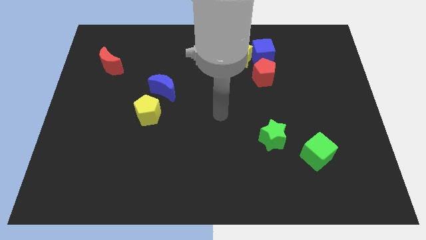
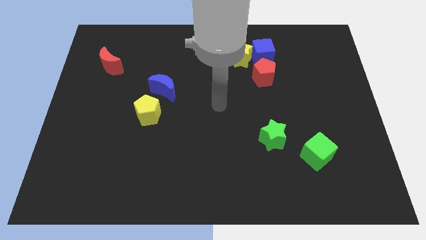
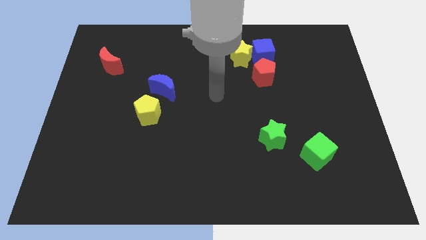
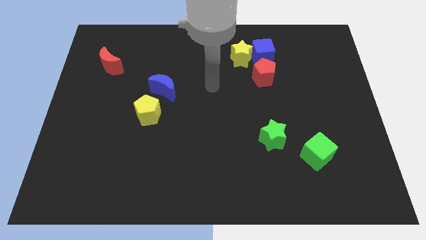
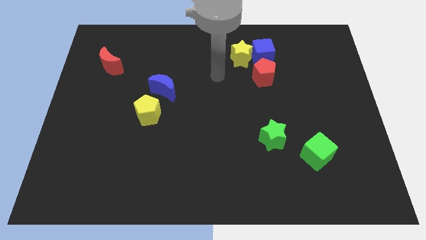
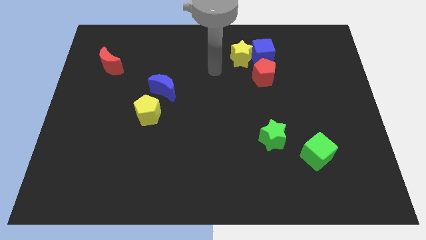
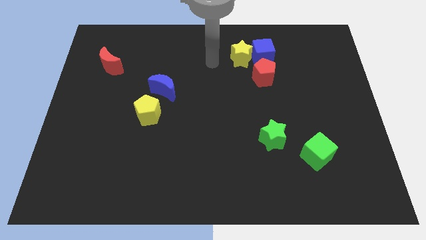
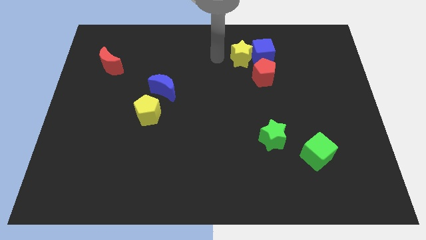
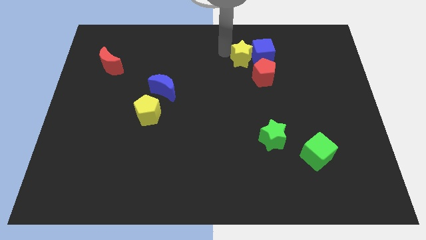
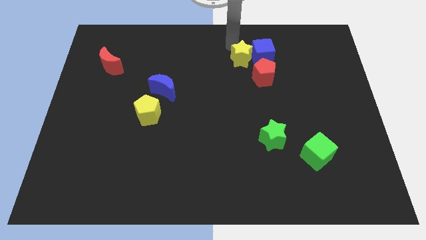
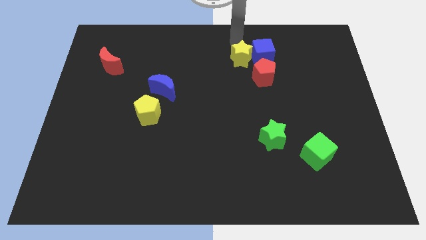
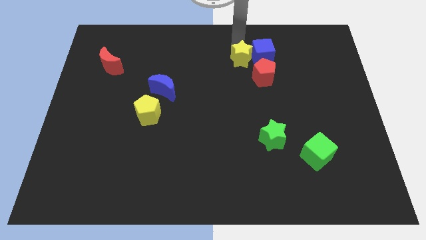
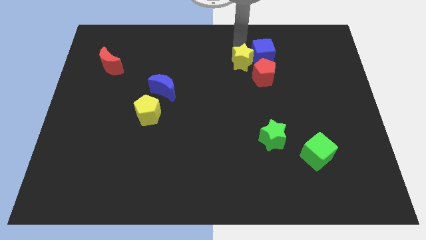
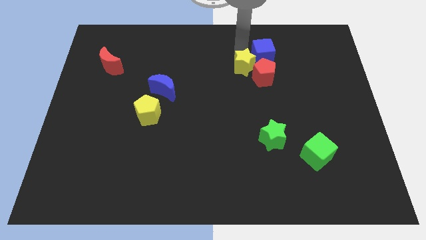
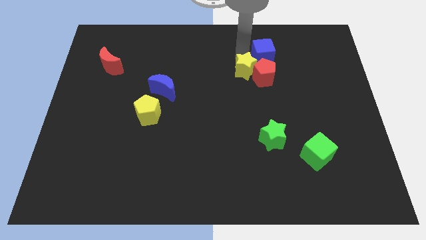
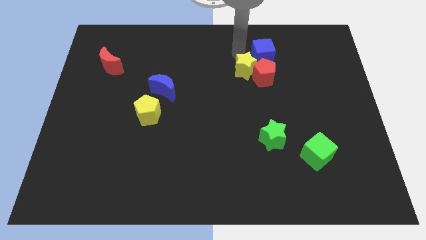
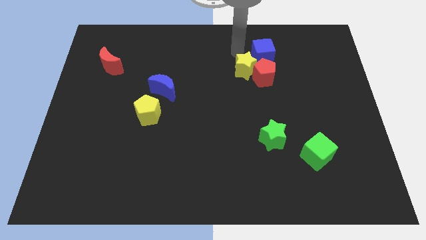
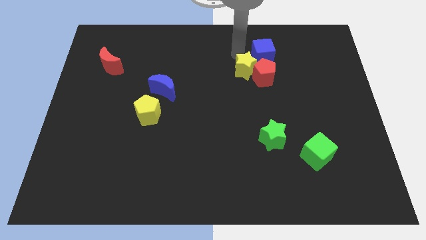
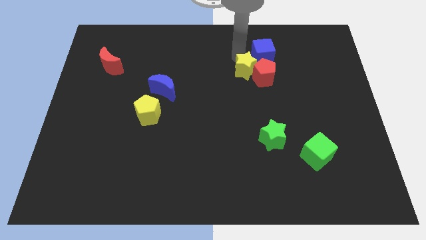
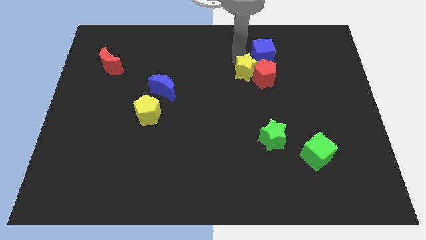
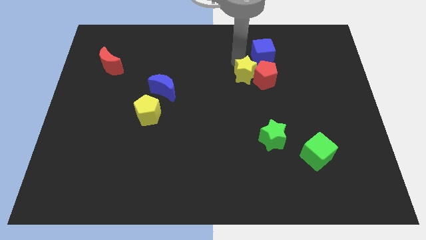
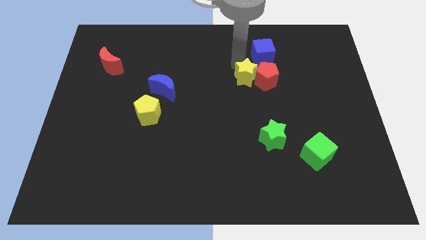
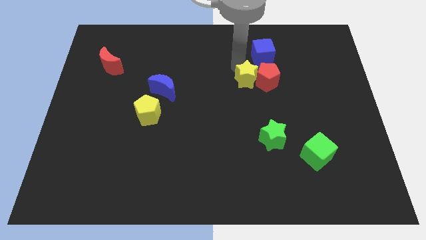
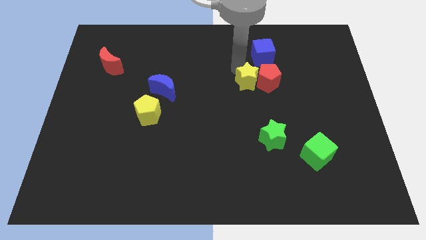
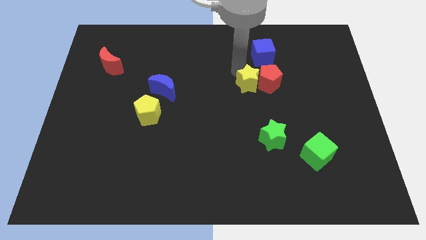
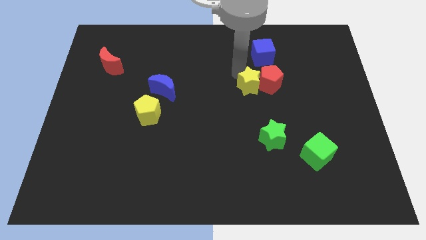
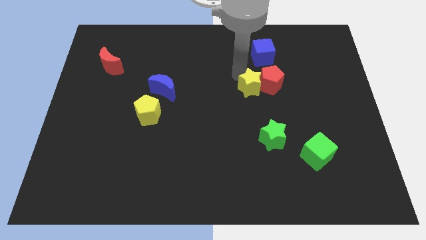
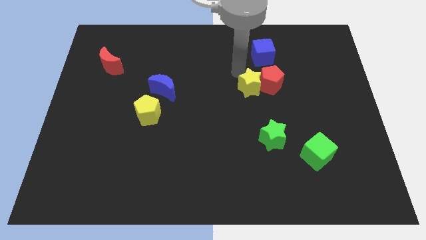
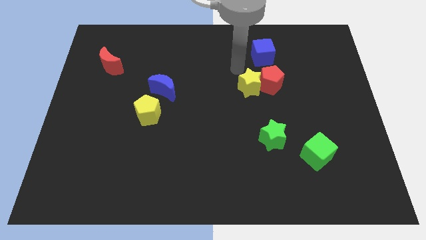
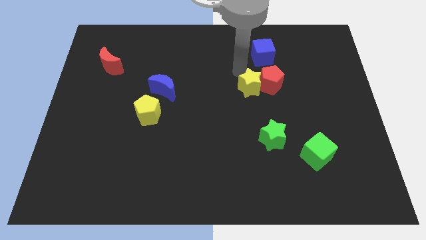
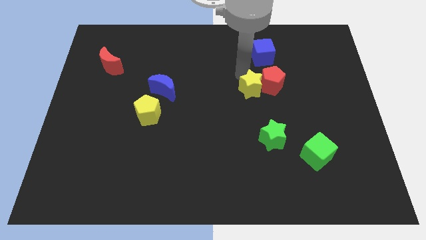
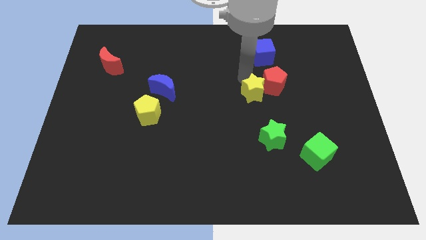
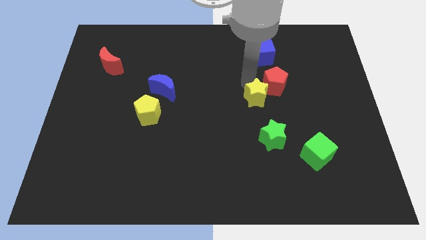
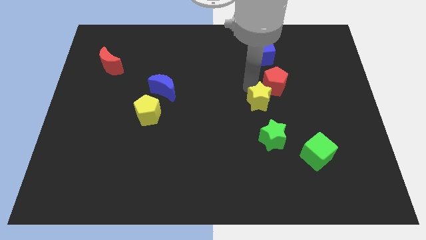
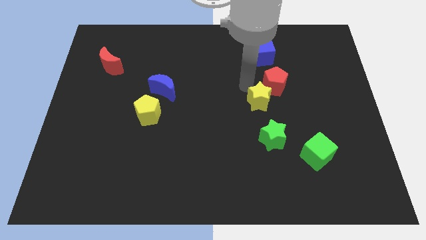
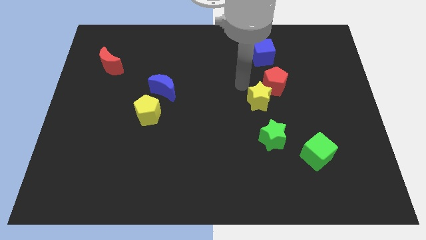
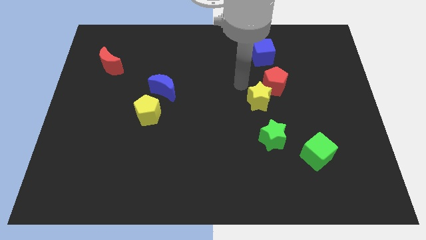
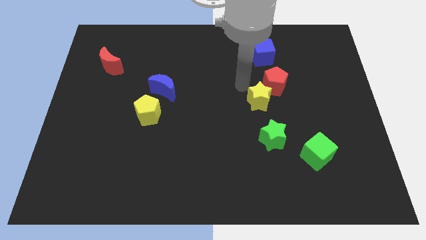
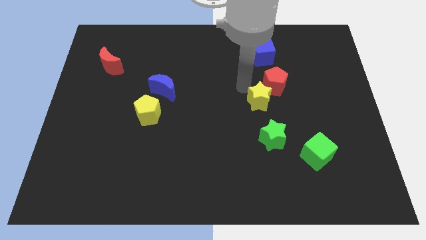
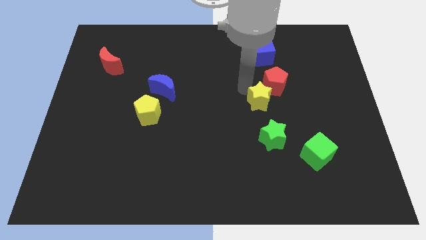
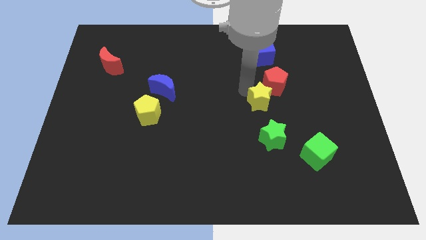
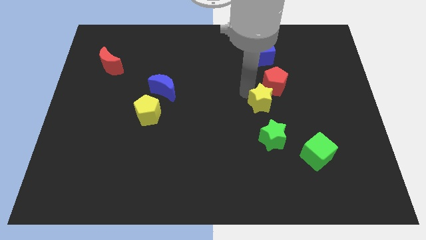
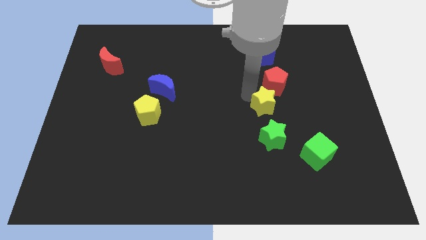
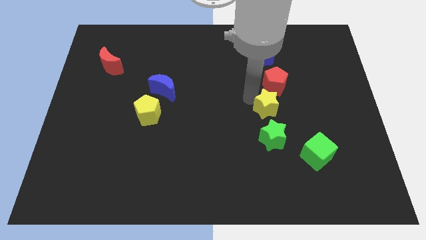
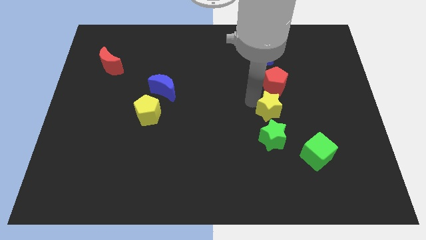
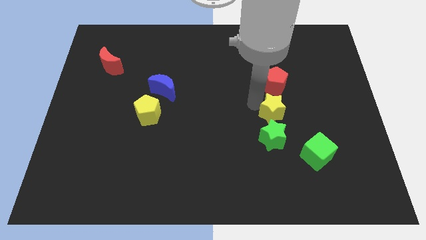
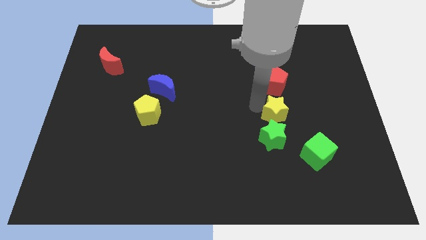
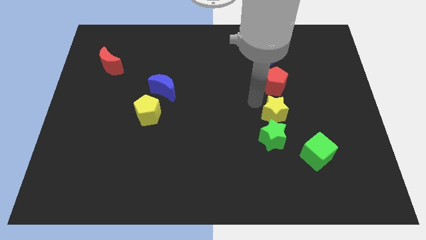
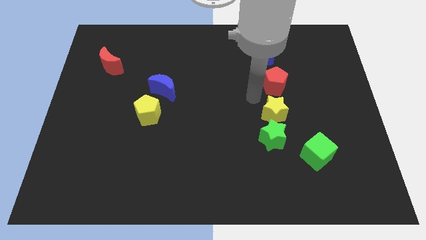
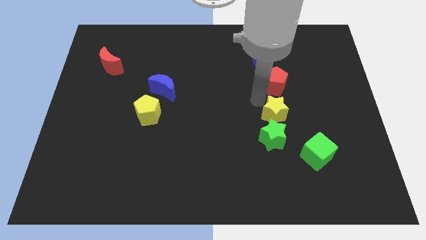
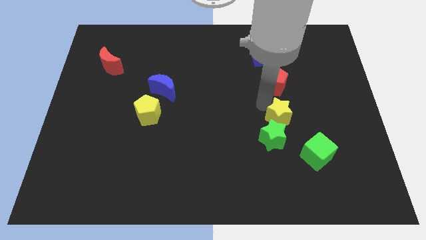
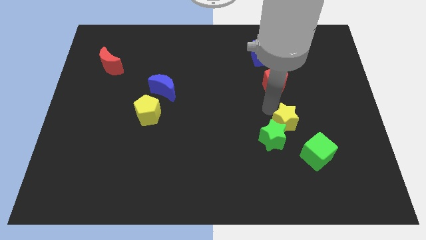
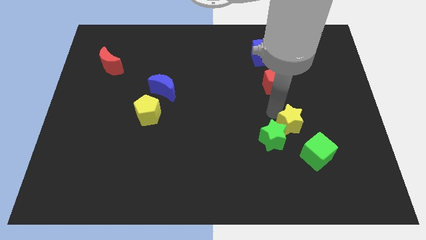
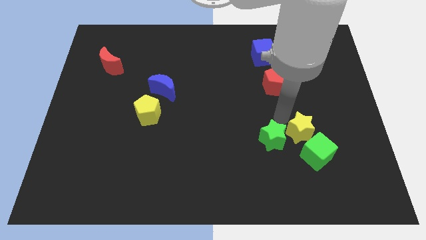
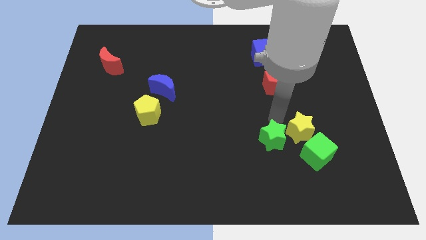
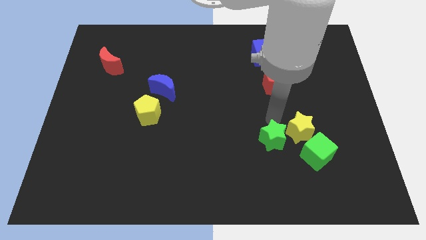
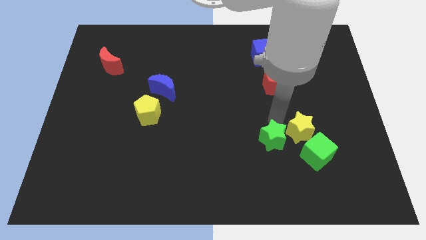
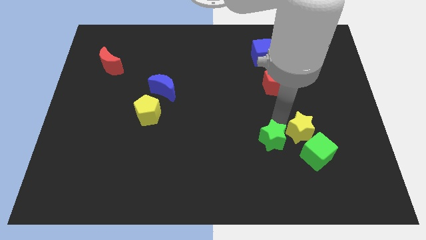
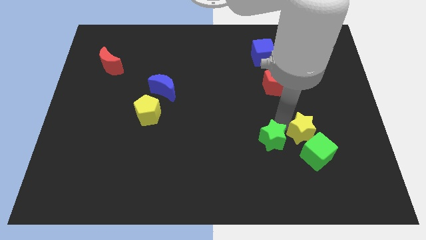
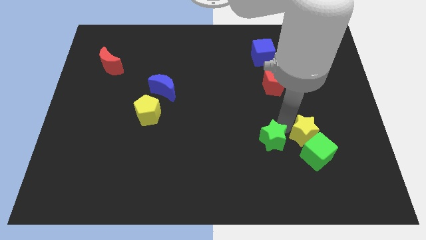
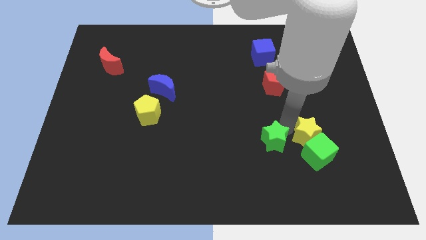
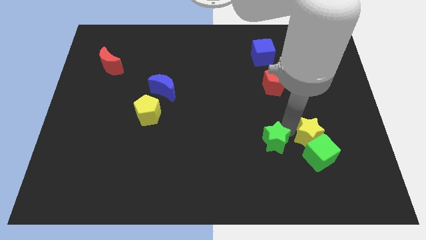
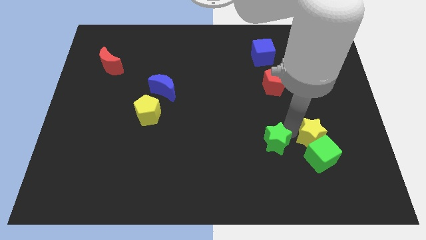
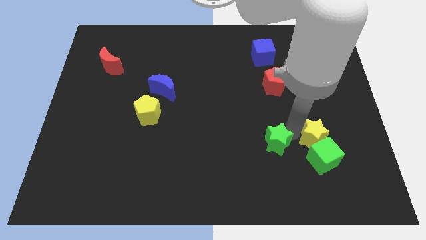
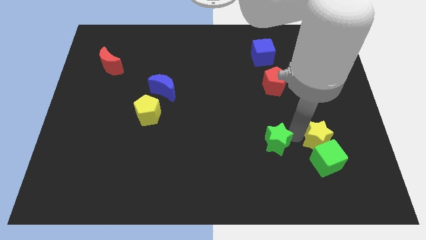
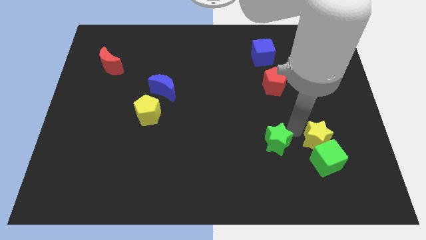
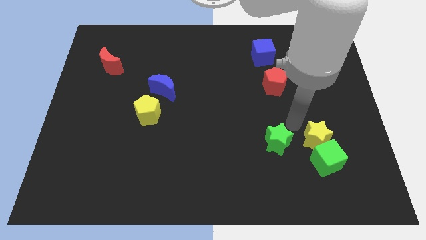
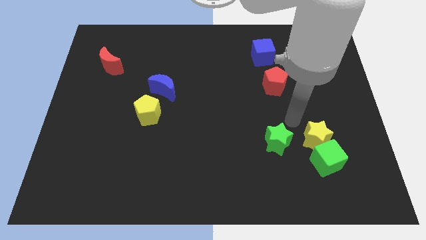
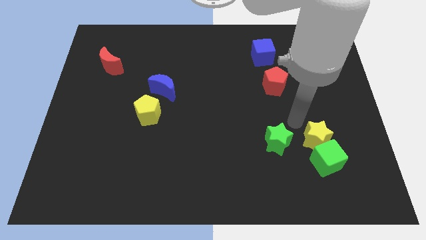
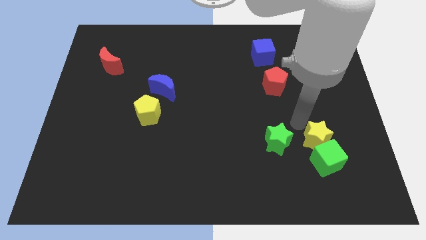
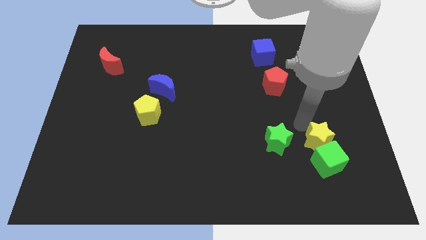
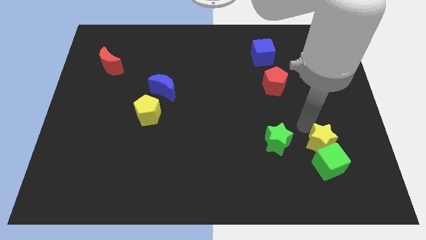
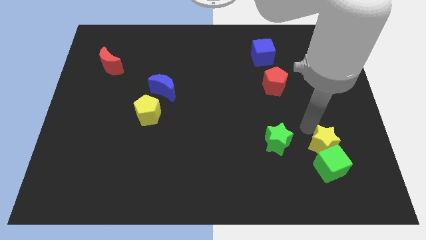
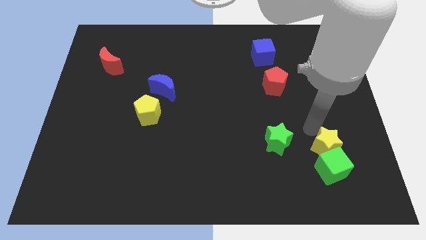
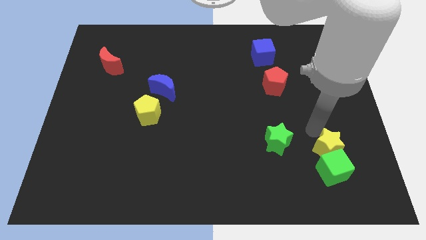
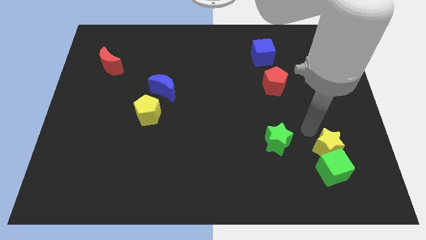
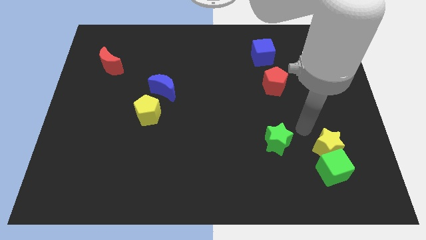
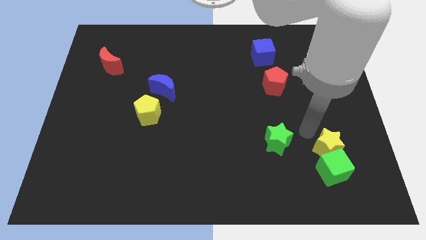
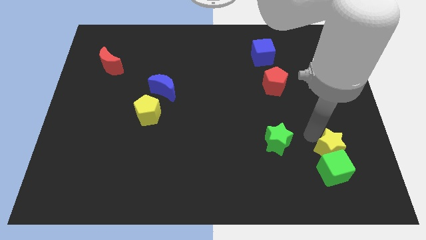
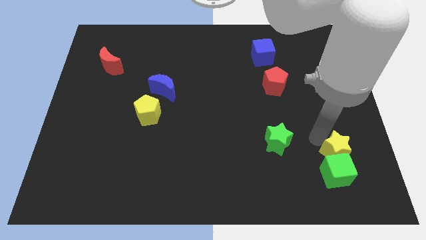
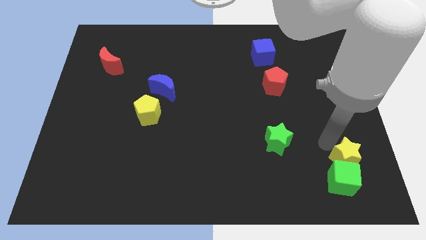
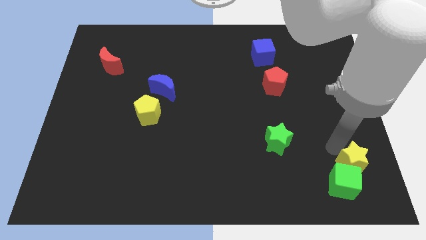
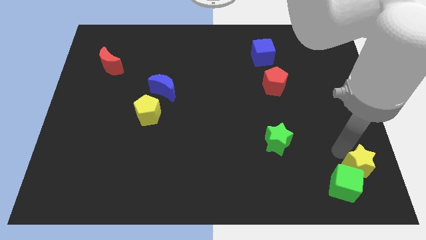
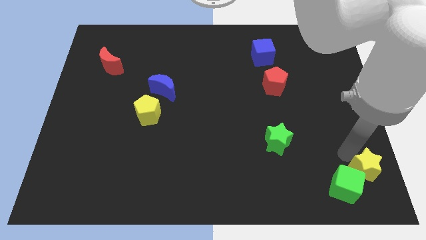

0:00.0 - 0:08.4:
move the yellow star to the bottom right
